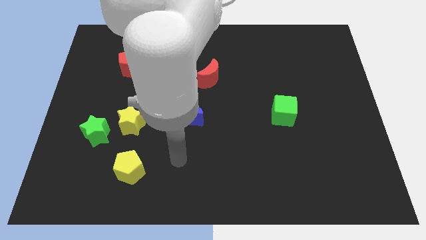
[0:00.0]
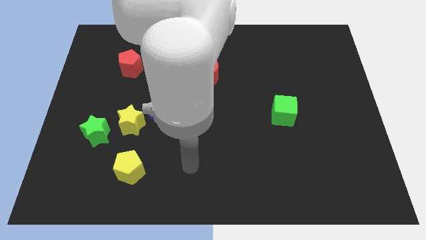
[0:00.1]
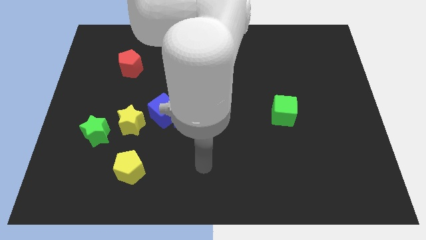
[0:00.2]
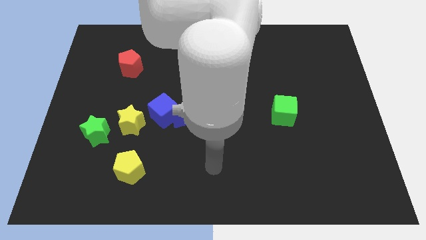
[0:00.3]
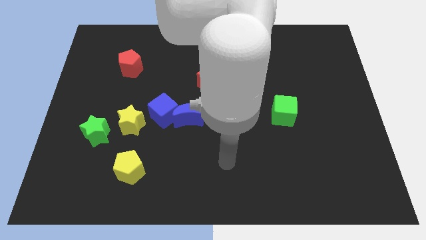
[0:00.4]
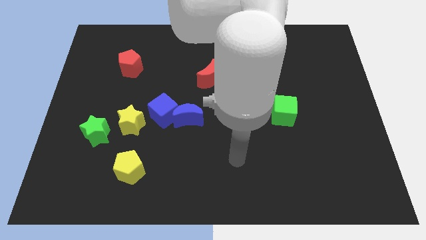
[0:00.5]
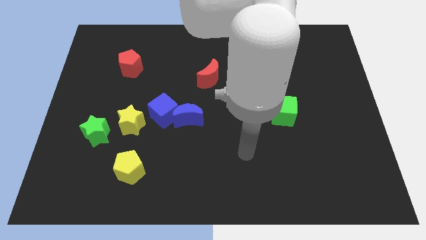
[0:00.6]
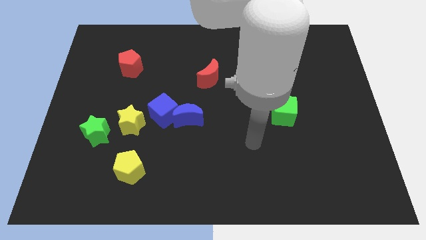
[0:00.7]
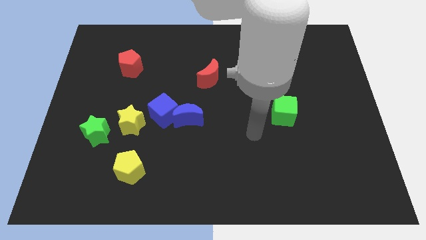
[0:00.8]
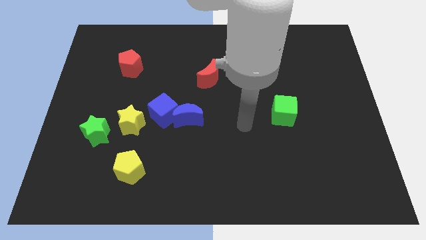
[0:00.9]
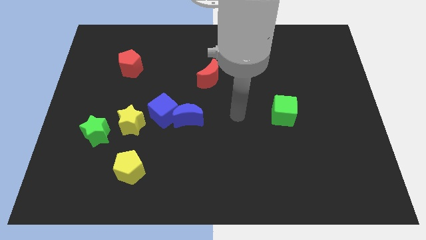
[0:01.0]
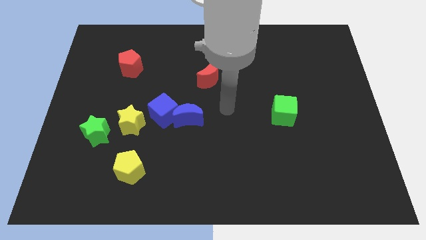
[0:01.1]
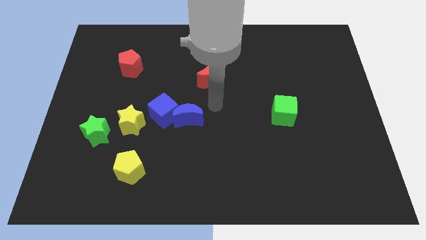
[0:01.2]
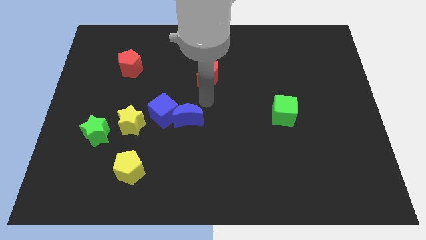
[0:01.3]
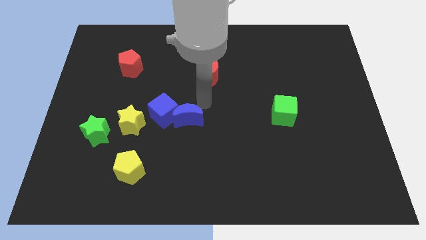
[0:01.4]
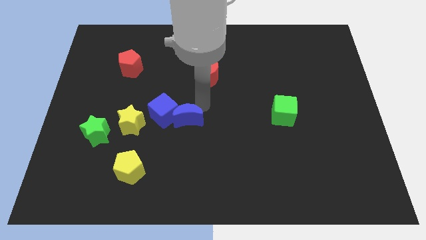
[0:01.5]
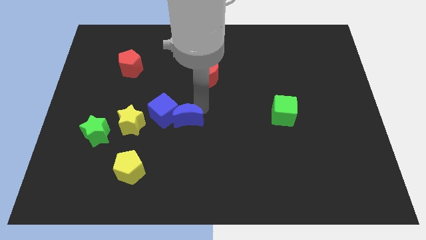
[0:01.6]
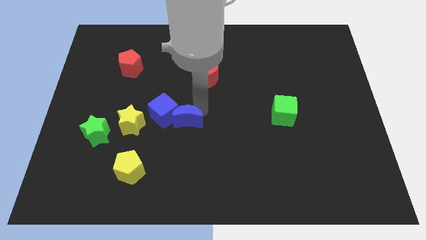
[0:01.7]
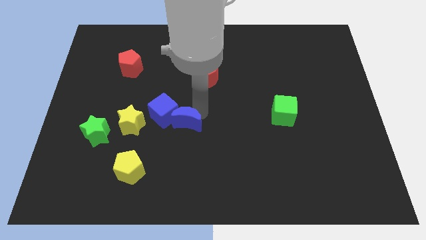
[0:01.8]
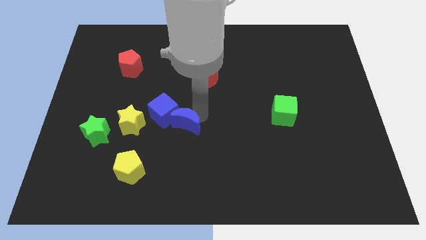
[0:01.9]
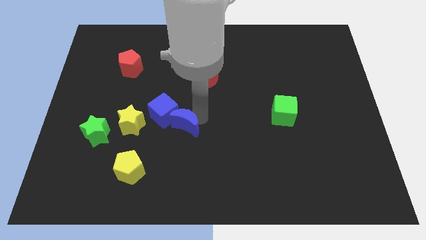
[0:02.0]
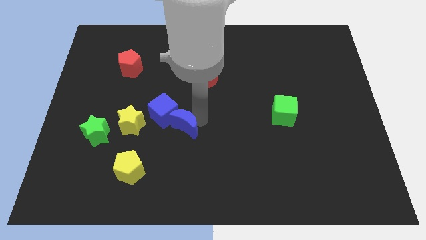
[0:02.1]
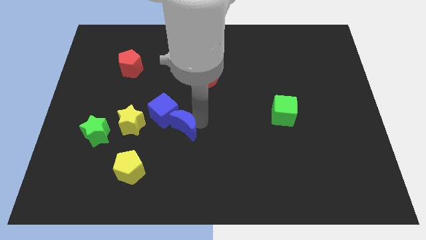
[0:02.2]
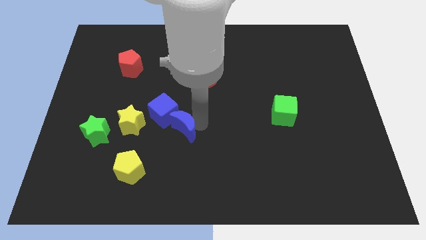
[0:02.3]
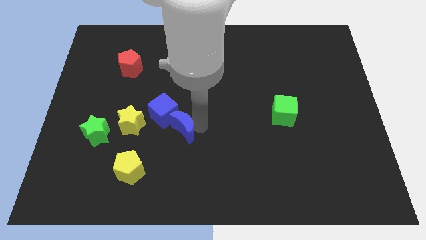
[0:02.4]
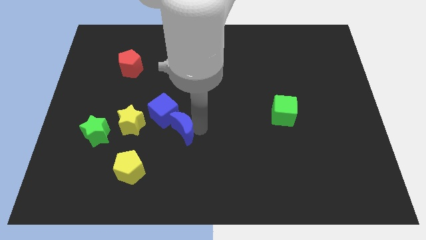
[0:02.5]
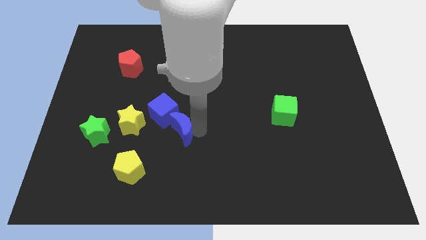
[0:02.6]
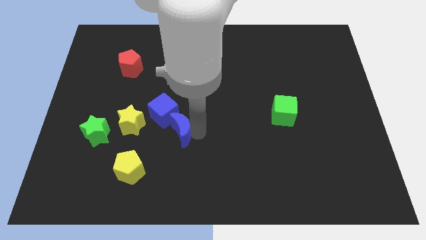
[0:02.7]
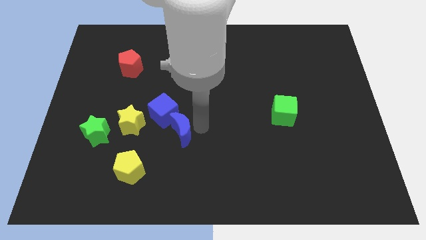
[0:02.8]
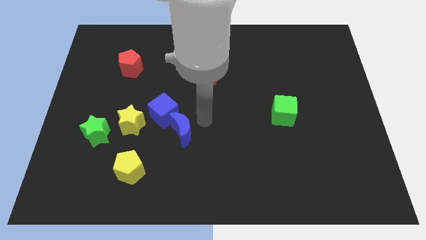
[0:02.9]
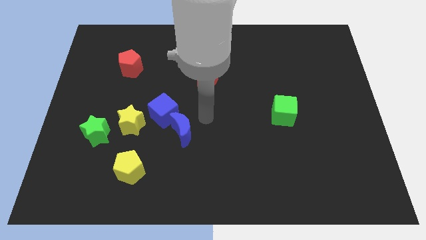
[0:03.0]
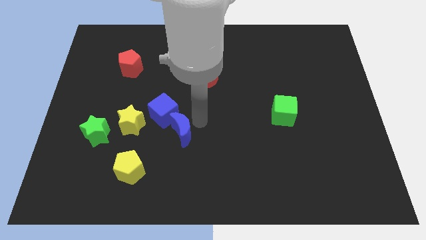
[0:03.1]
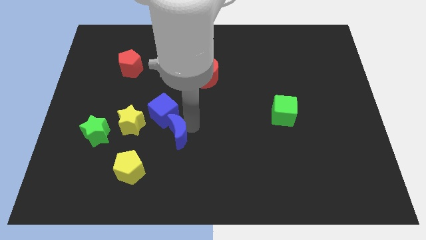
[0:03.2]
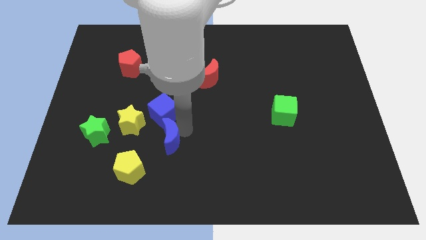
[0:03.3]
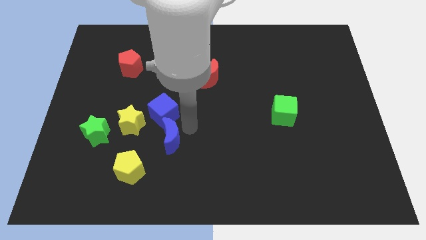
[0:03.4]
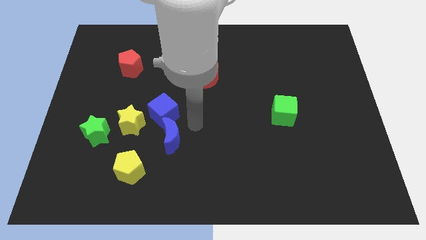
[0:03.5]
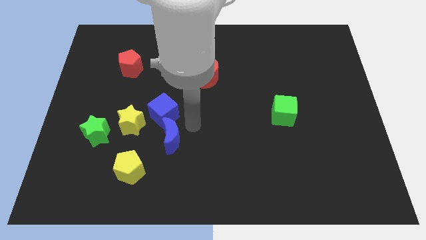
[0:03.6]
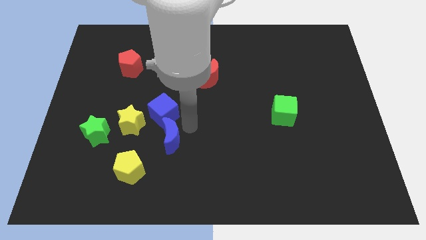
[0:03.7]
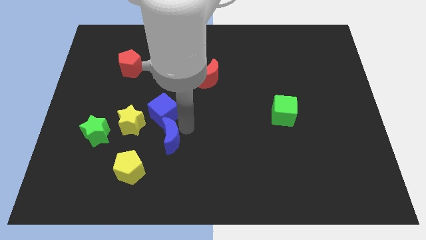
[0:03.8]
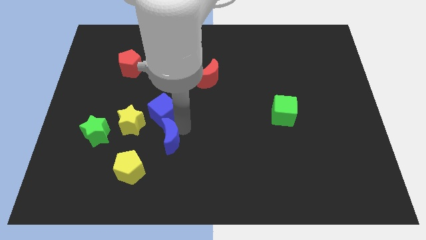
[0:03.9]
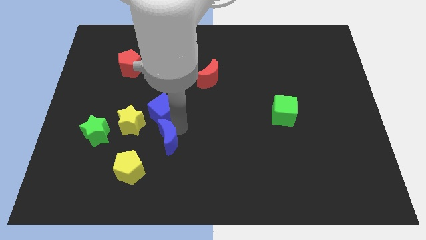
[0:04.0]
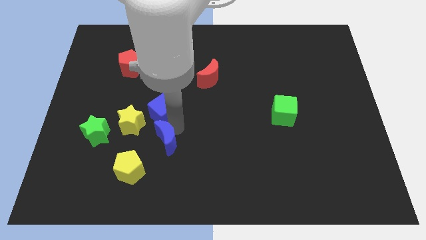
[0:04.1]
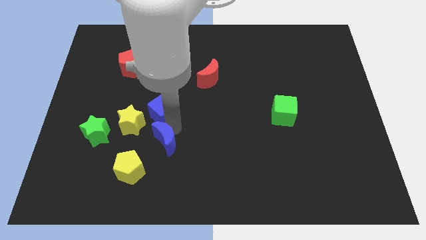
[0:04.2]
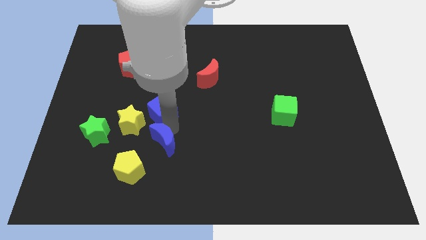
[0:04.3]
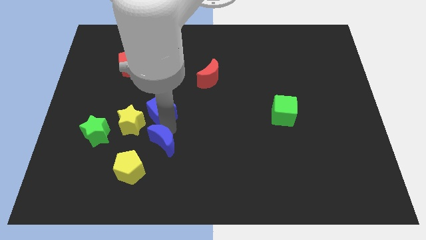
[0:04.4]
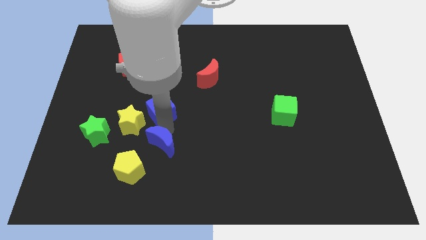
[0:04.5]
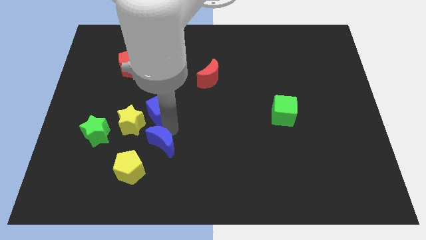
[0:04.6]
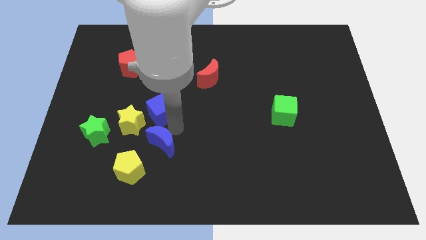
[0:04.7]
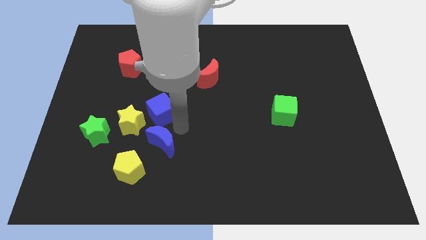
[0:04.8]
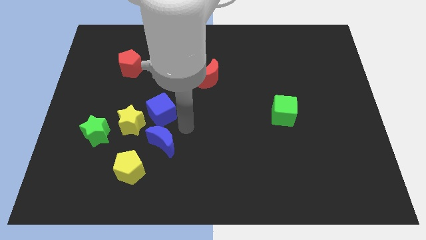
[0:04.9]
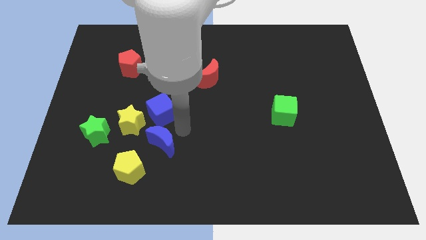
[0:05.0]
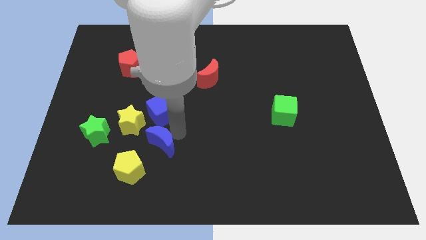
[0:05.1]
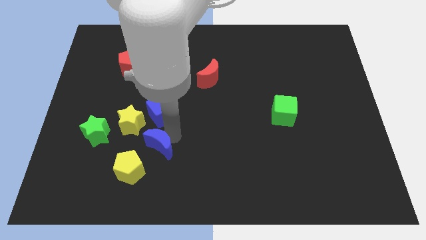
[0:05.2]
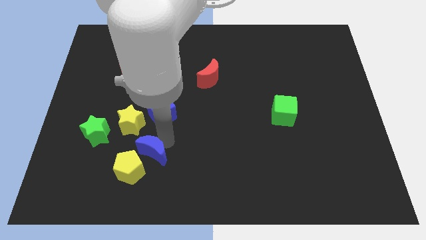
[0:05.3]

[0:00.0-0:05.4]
put the blue moon next to the yellow pentagon

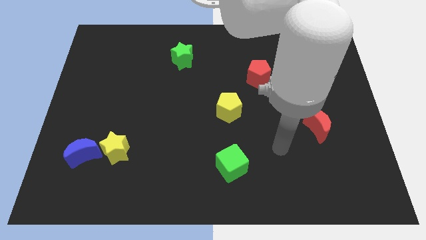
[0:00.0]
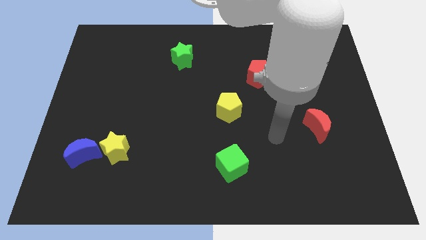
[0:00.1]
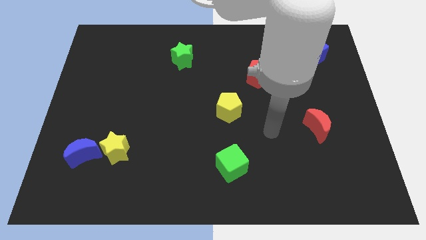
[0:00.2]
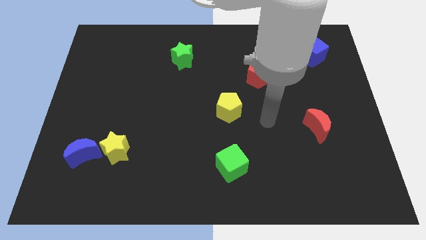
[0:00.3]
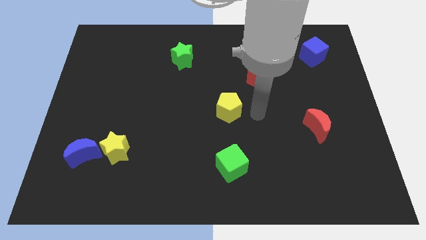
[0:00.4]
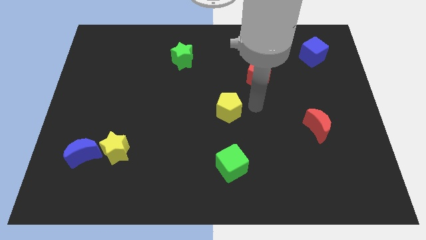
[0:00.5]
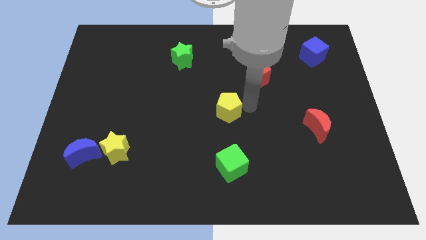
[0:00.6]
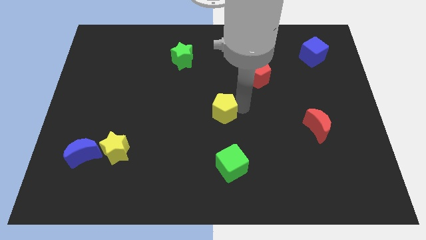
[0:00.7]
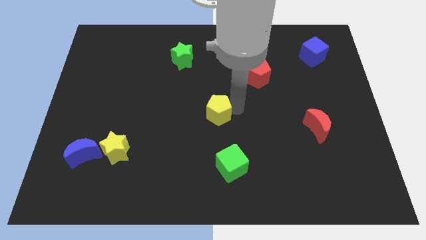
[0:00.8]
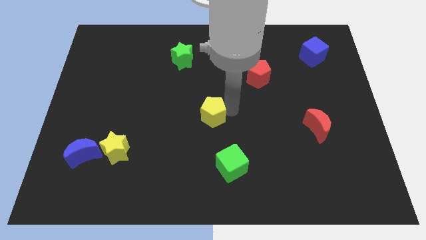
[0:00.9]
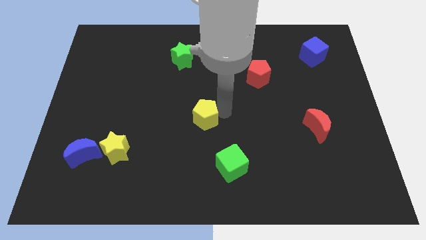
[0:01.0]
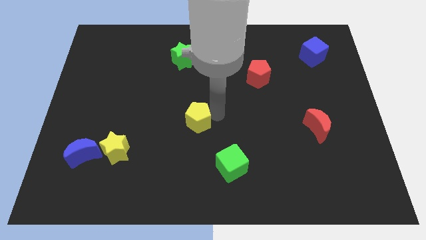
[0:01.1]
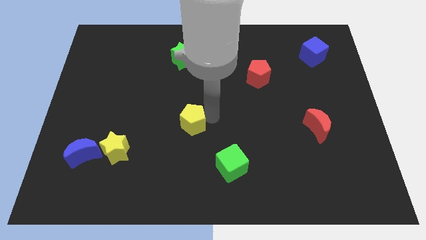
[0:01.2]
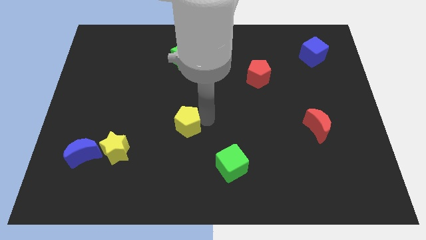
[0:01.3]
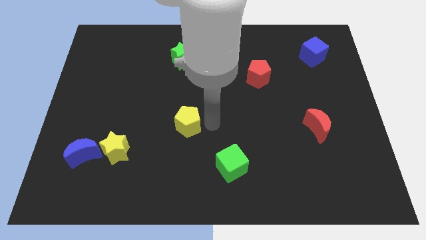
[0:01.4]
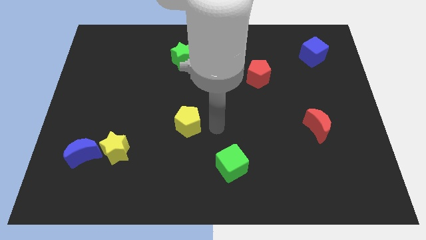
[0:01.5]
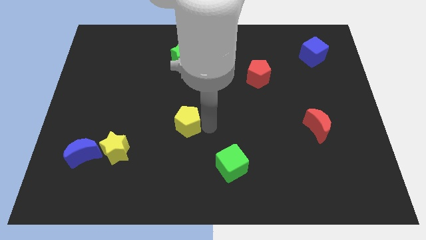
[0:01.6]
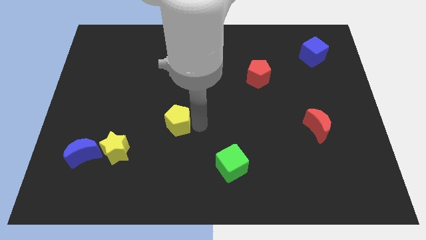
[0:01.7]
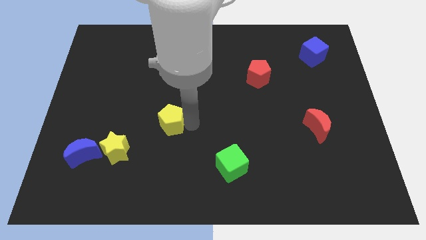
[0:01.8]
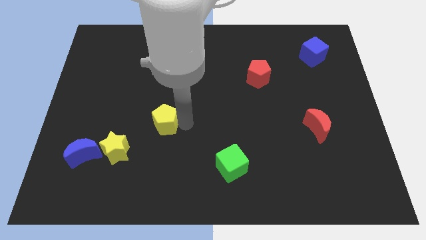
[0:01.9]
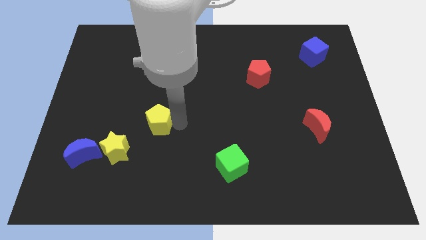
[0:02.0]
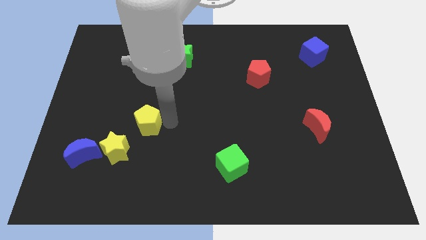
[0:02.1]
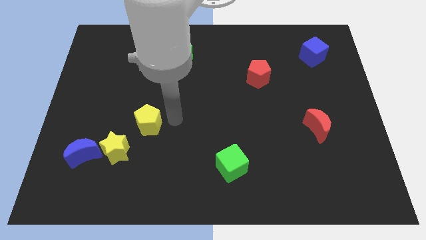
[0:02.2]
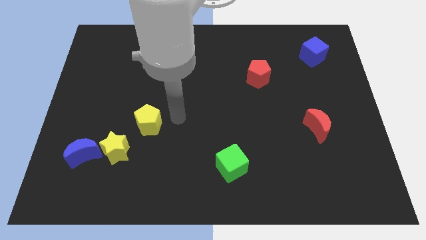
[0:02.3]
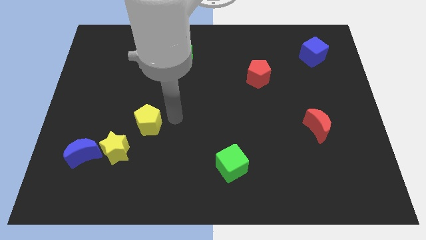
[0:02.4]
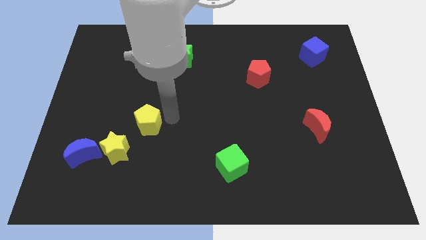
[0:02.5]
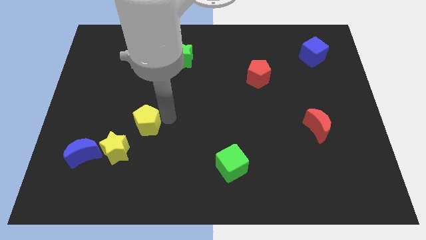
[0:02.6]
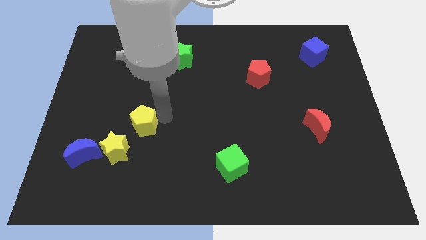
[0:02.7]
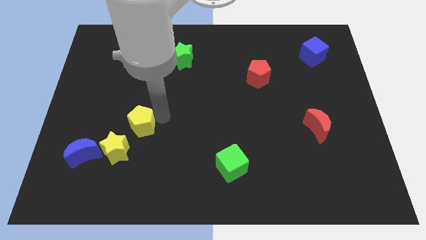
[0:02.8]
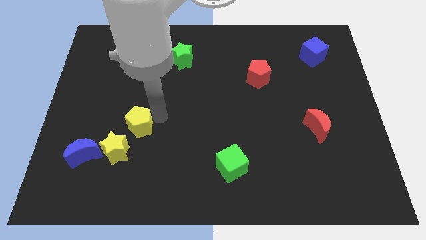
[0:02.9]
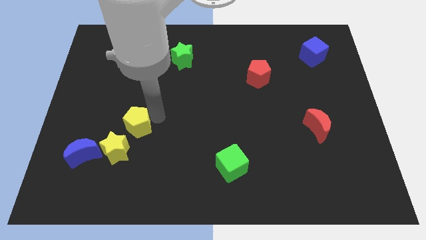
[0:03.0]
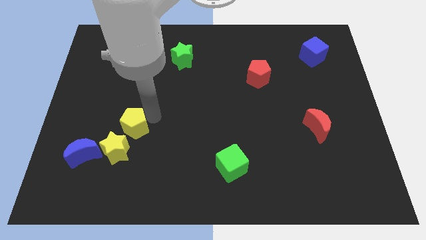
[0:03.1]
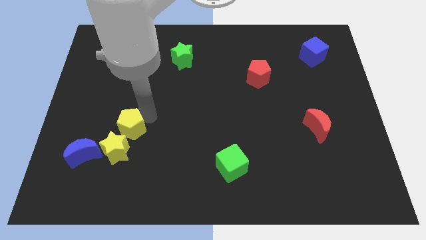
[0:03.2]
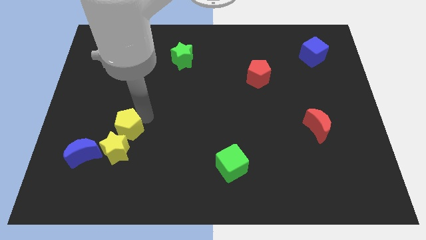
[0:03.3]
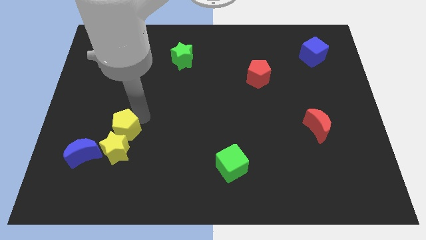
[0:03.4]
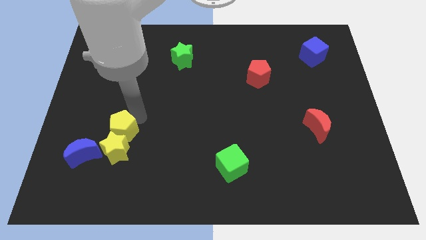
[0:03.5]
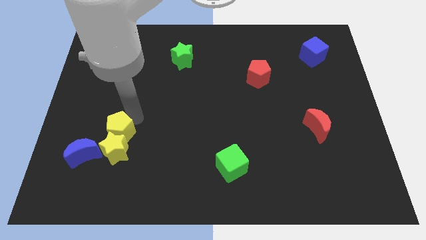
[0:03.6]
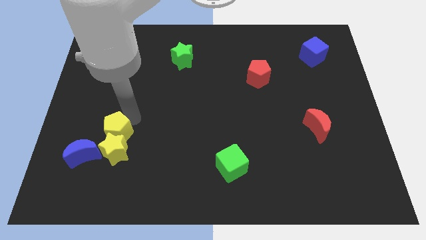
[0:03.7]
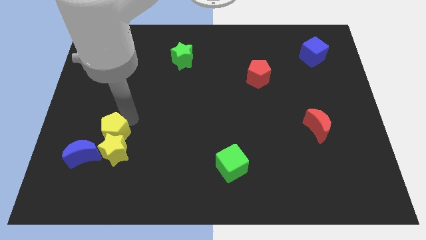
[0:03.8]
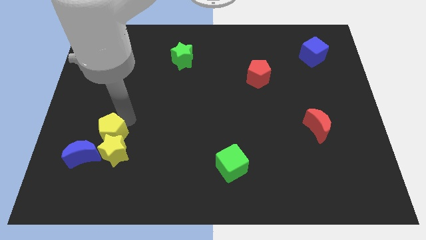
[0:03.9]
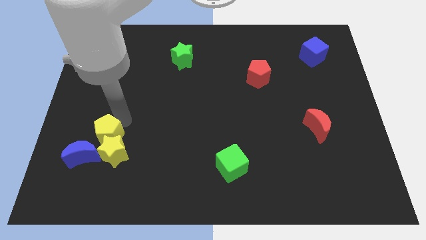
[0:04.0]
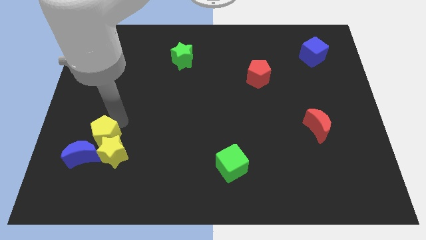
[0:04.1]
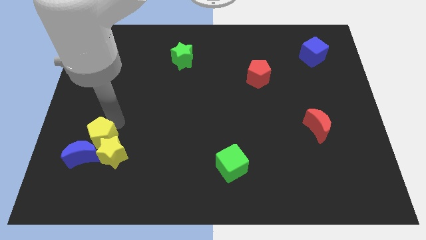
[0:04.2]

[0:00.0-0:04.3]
slide the yellow pentagon towards the blue moon
